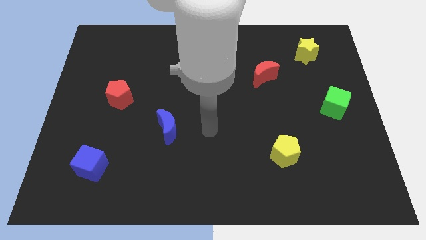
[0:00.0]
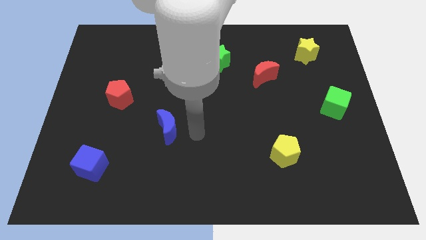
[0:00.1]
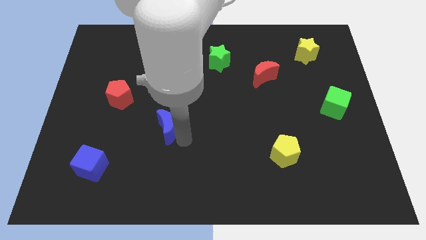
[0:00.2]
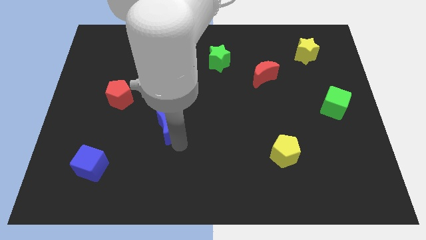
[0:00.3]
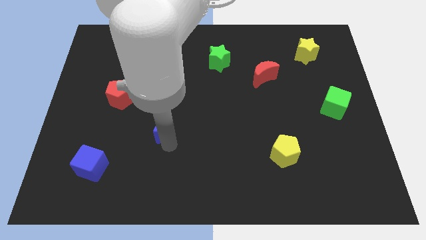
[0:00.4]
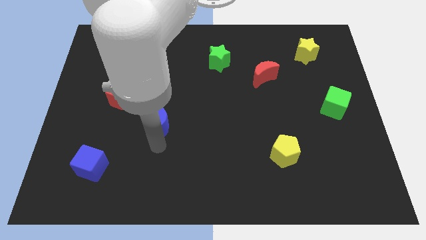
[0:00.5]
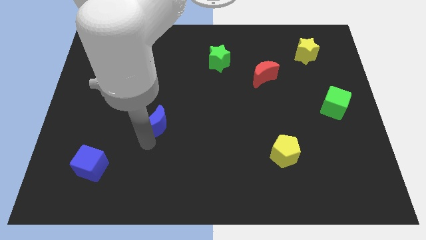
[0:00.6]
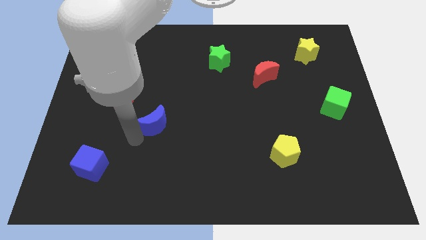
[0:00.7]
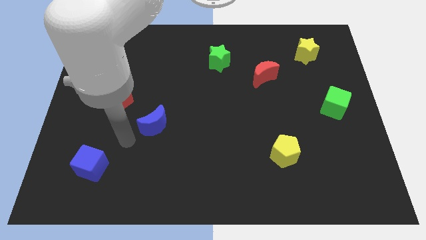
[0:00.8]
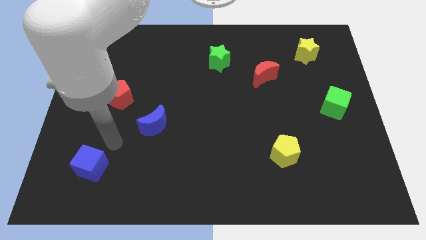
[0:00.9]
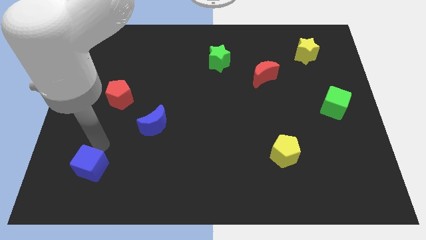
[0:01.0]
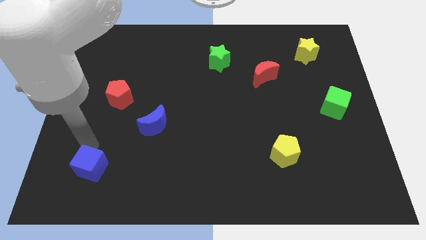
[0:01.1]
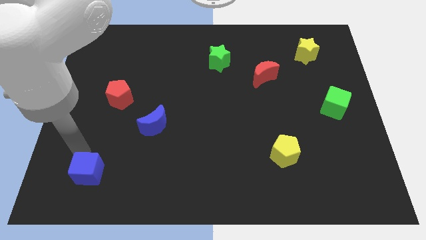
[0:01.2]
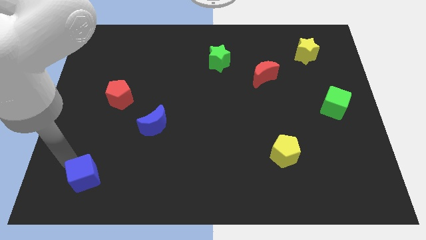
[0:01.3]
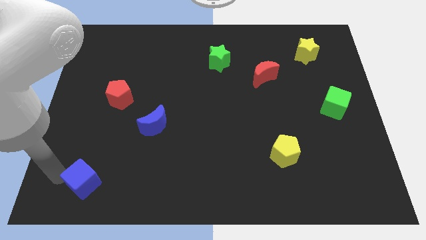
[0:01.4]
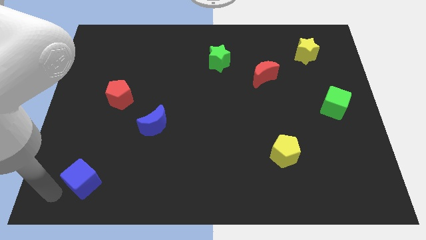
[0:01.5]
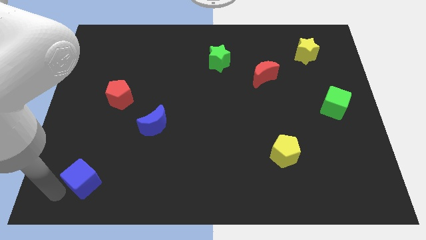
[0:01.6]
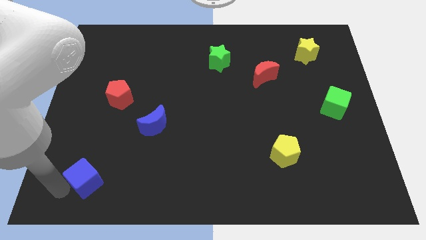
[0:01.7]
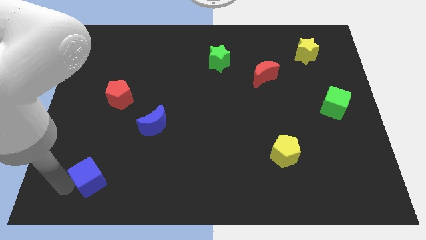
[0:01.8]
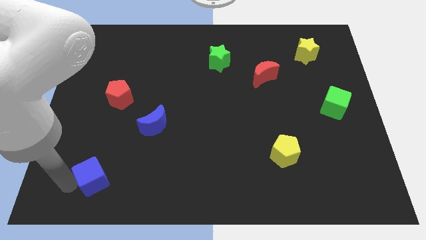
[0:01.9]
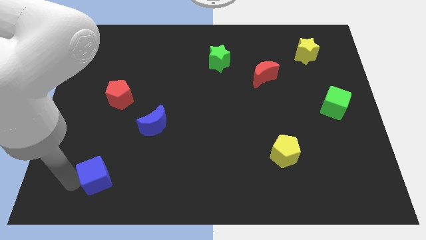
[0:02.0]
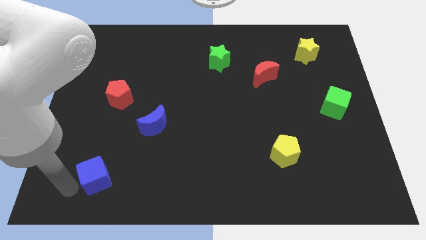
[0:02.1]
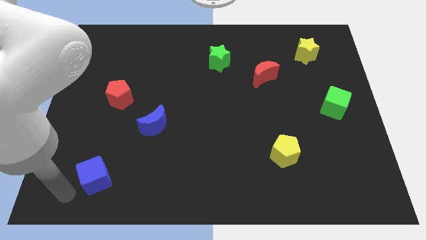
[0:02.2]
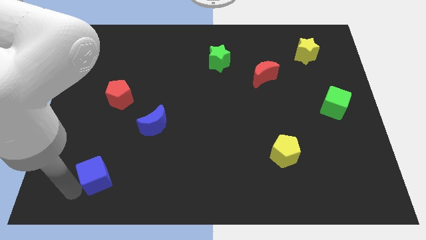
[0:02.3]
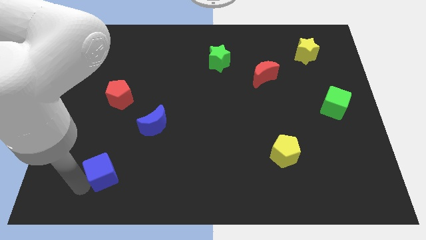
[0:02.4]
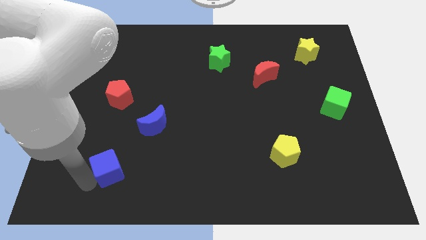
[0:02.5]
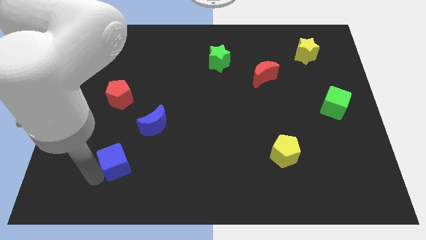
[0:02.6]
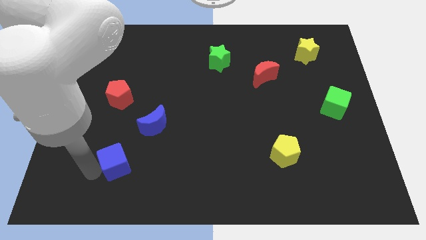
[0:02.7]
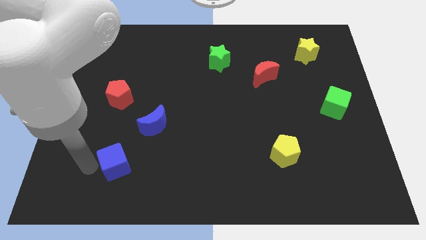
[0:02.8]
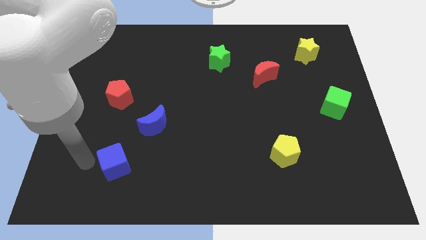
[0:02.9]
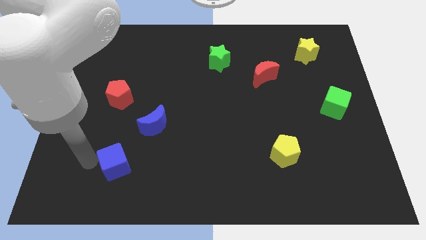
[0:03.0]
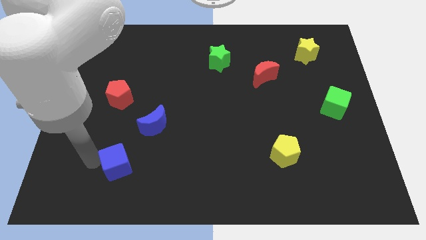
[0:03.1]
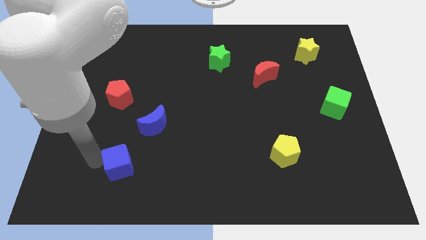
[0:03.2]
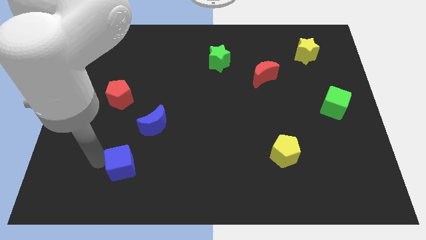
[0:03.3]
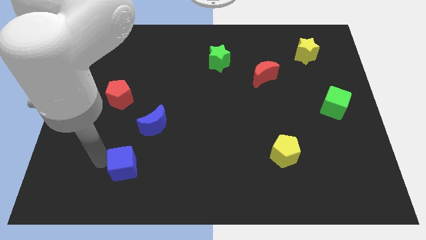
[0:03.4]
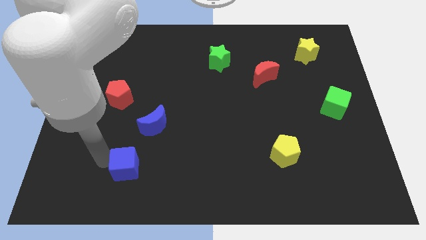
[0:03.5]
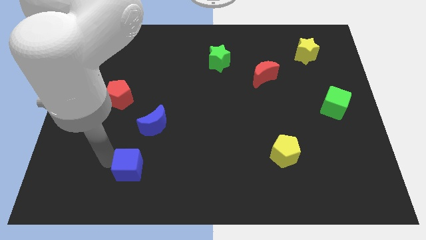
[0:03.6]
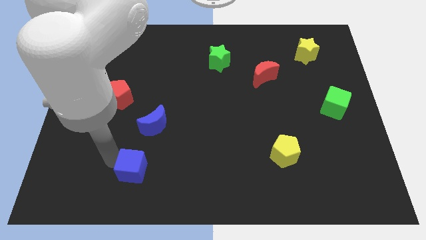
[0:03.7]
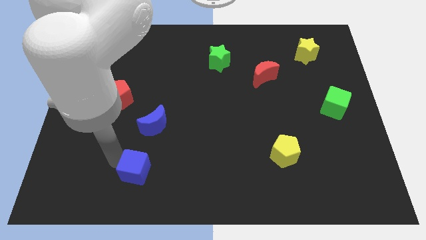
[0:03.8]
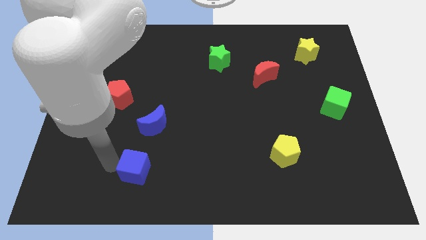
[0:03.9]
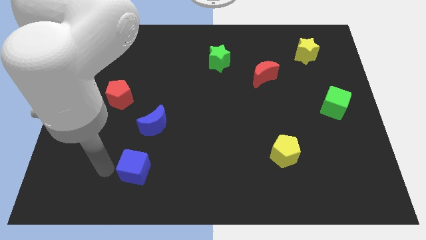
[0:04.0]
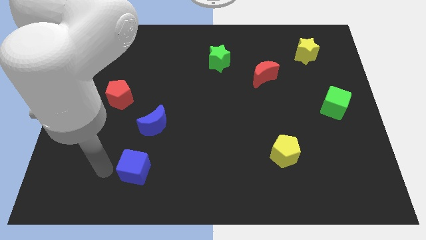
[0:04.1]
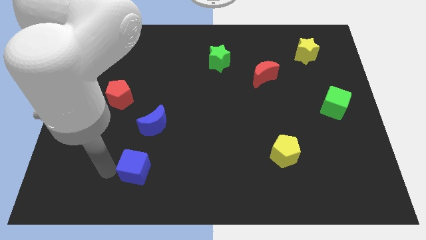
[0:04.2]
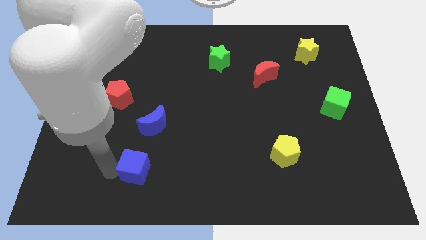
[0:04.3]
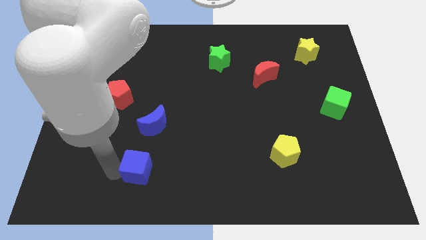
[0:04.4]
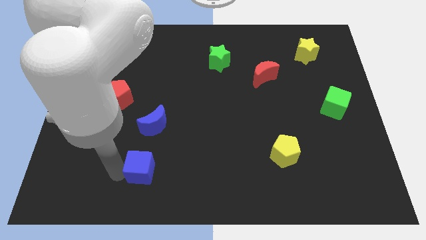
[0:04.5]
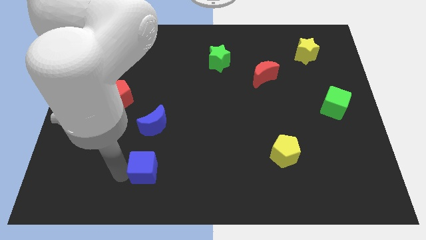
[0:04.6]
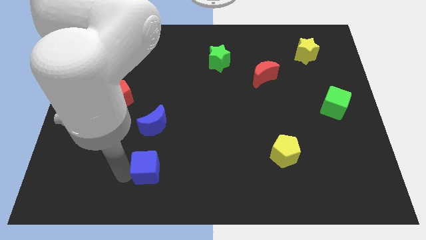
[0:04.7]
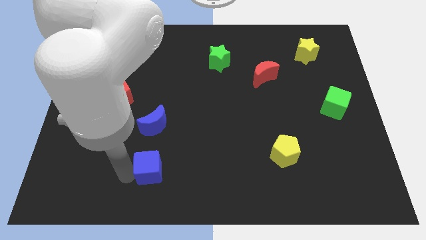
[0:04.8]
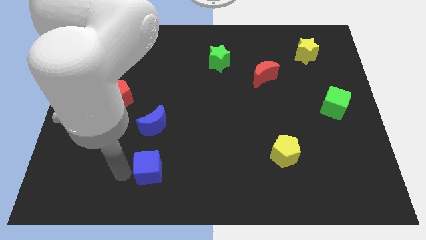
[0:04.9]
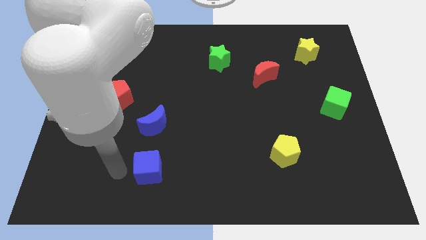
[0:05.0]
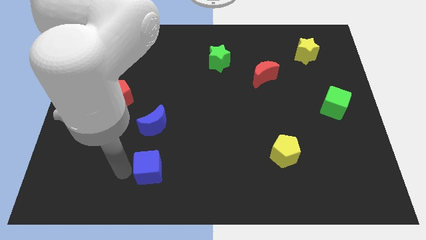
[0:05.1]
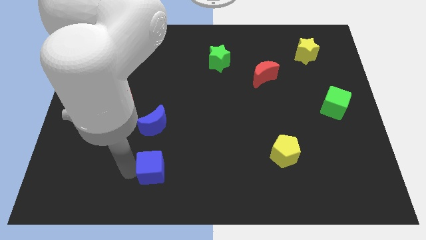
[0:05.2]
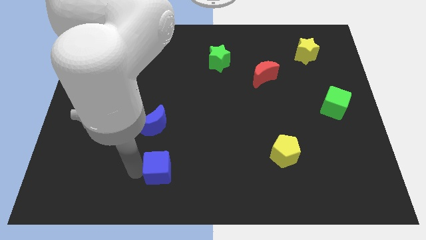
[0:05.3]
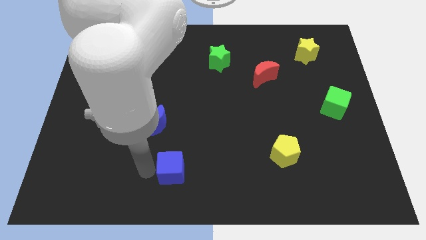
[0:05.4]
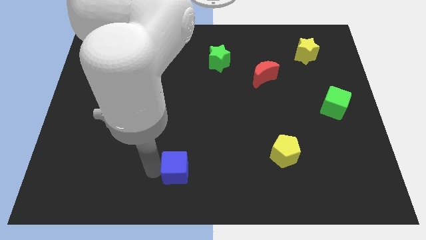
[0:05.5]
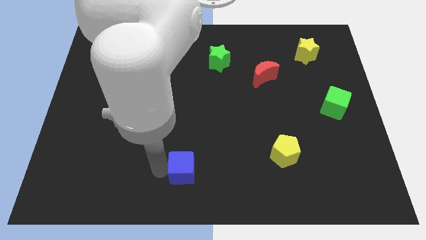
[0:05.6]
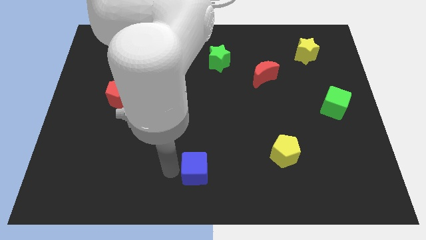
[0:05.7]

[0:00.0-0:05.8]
push the blue cube right

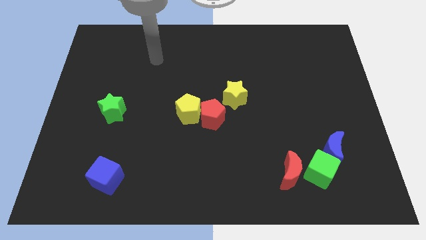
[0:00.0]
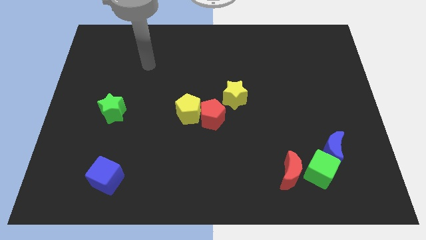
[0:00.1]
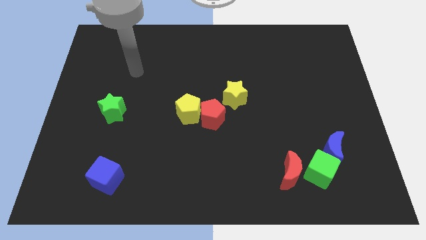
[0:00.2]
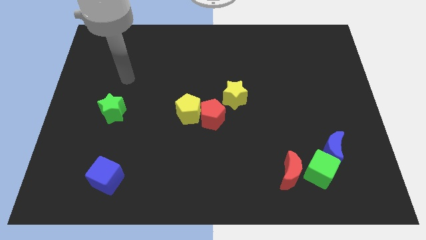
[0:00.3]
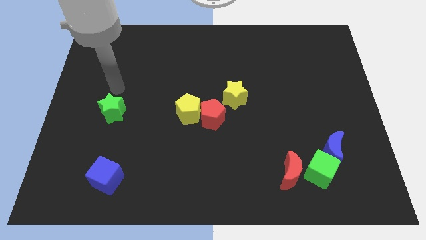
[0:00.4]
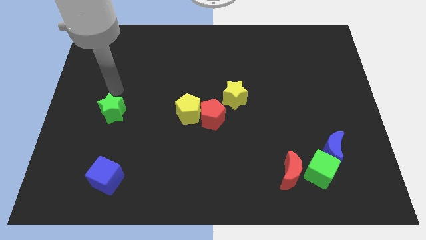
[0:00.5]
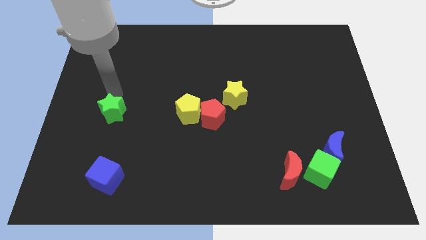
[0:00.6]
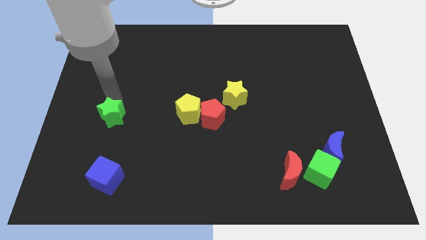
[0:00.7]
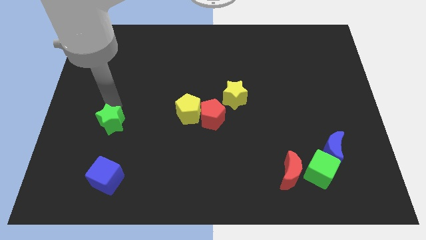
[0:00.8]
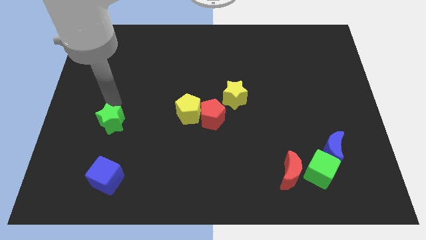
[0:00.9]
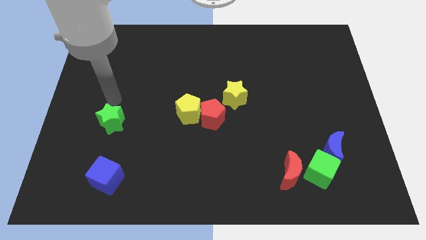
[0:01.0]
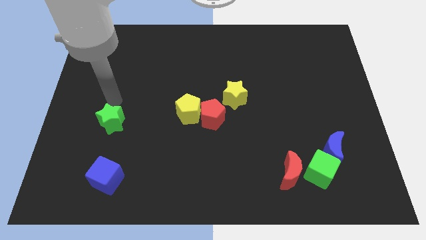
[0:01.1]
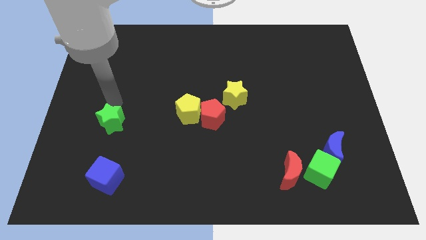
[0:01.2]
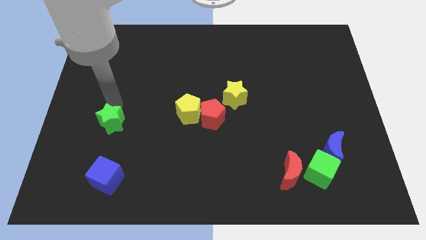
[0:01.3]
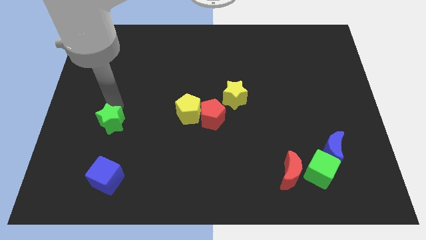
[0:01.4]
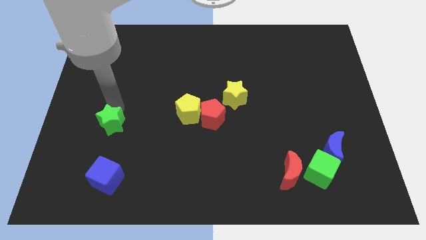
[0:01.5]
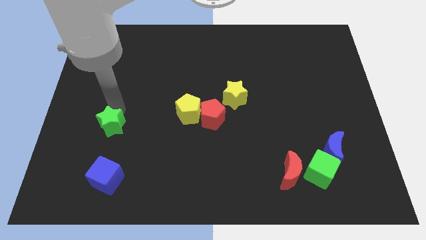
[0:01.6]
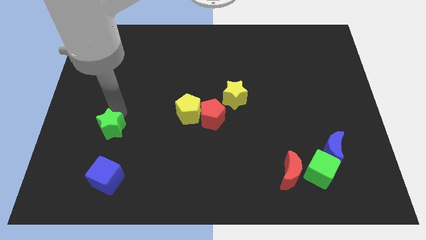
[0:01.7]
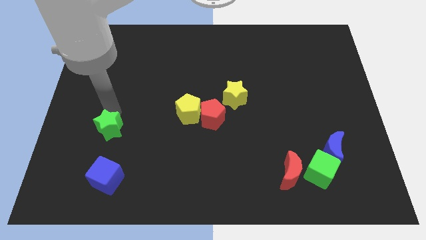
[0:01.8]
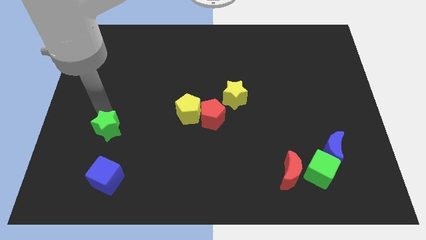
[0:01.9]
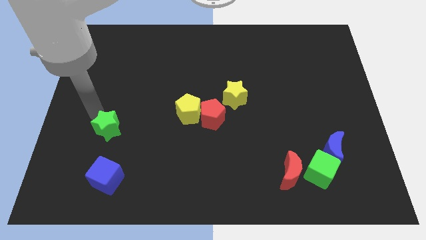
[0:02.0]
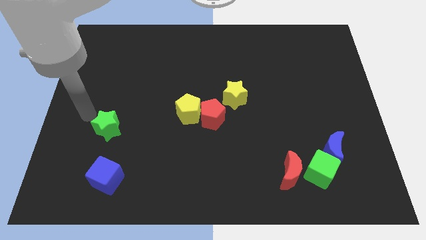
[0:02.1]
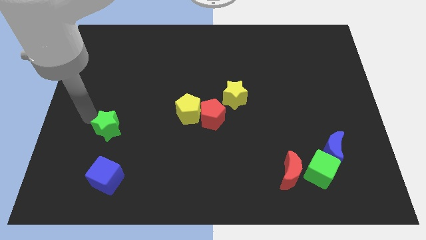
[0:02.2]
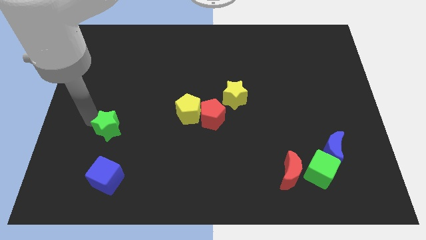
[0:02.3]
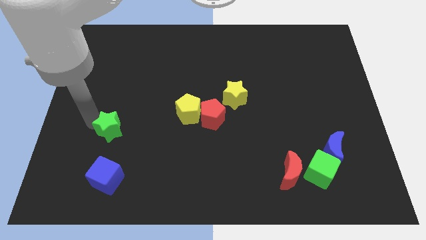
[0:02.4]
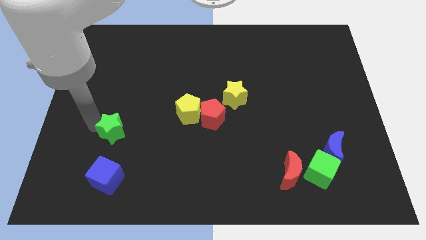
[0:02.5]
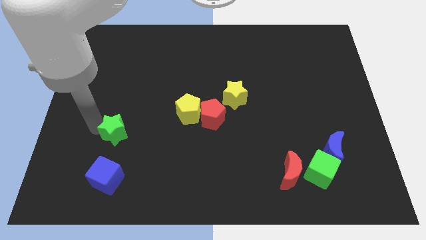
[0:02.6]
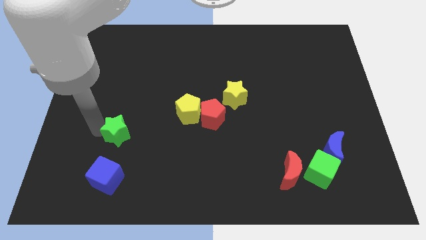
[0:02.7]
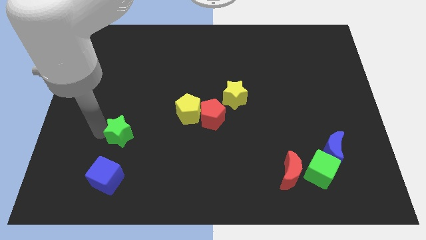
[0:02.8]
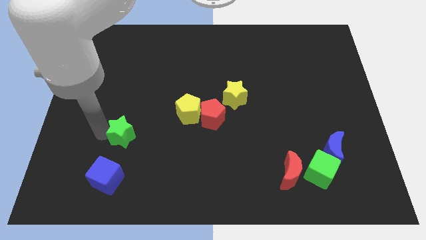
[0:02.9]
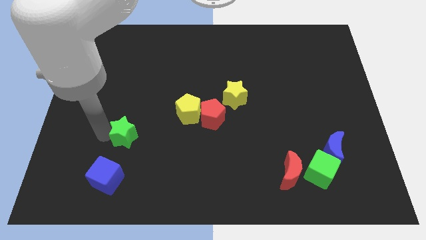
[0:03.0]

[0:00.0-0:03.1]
move the green star slightly down and to the right diagonally
